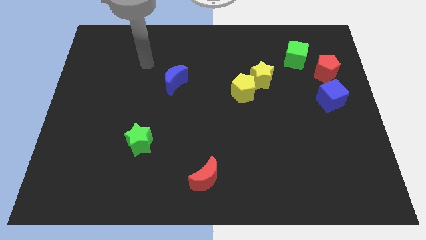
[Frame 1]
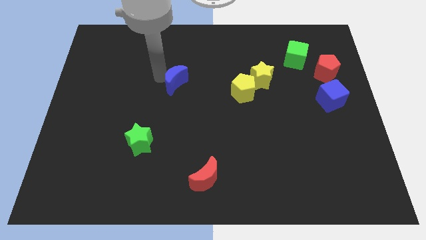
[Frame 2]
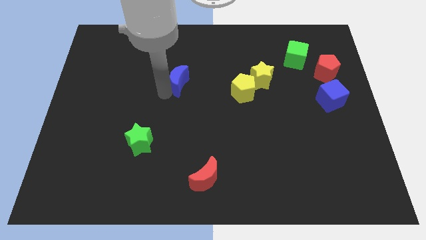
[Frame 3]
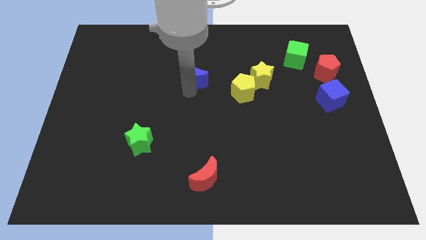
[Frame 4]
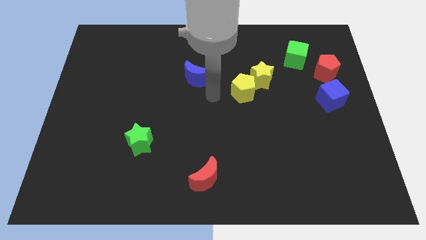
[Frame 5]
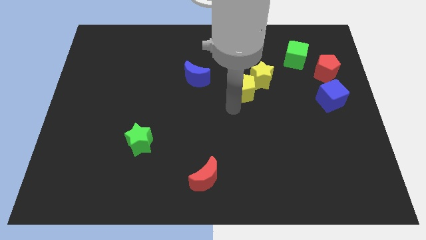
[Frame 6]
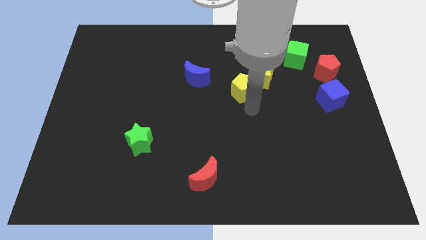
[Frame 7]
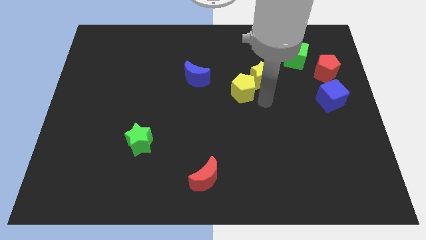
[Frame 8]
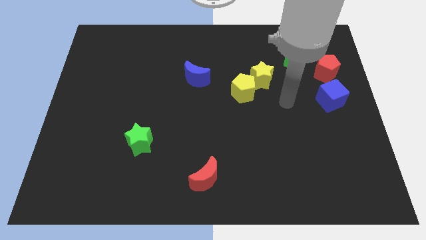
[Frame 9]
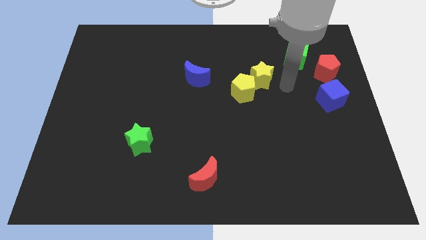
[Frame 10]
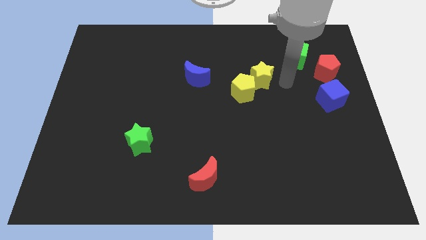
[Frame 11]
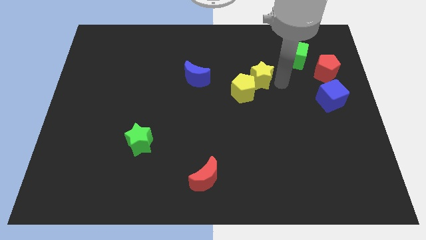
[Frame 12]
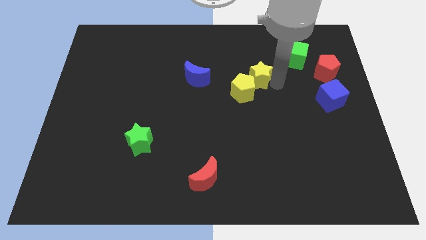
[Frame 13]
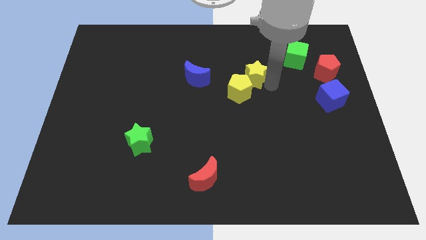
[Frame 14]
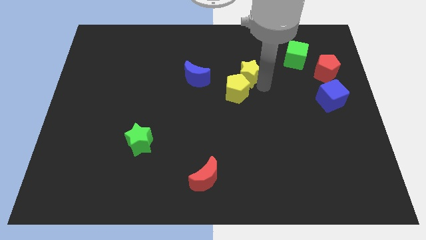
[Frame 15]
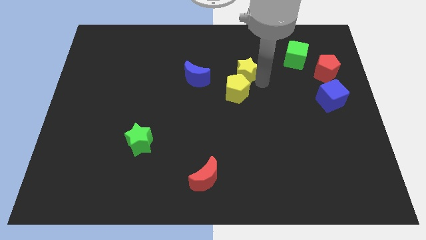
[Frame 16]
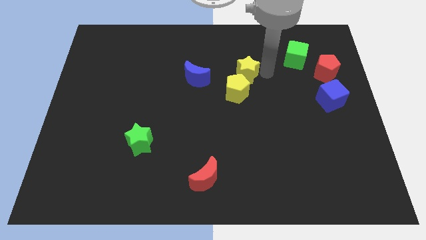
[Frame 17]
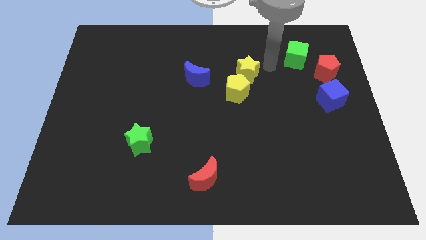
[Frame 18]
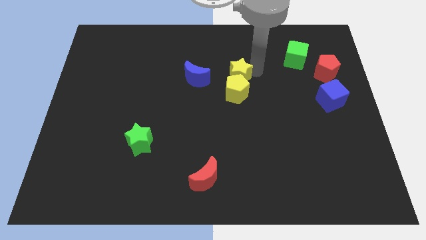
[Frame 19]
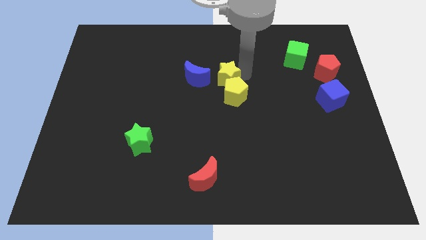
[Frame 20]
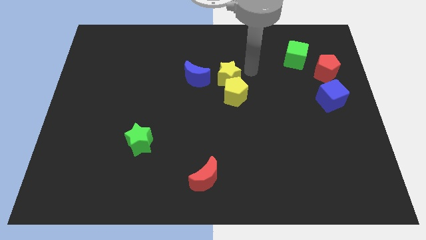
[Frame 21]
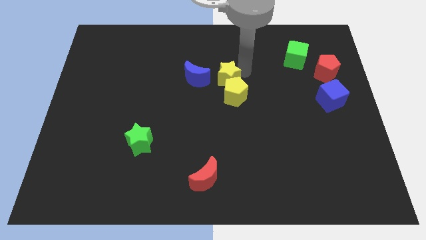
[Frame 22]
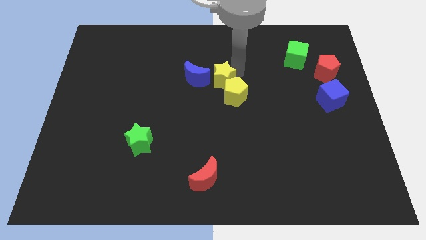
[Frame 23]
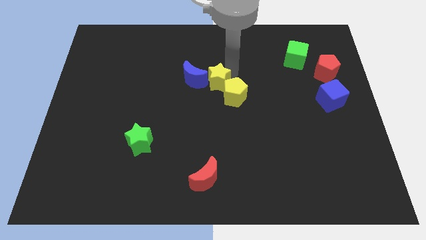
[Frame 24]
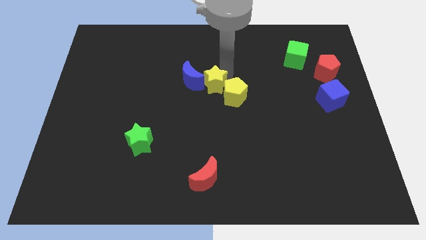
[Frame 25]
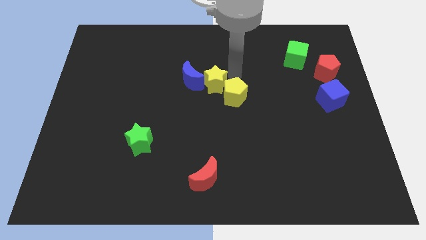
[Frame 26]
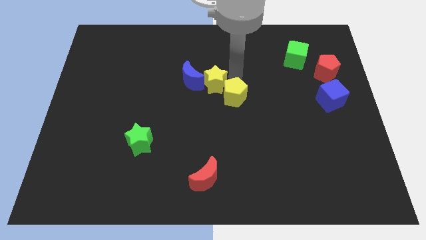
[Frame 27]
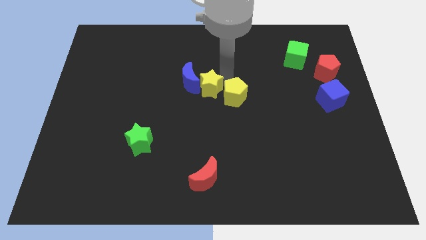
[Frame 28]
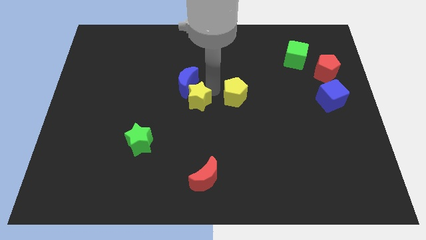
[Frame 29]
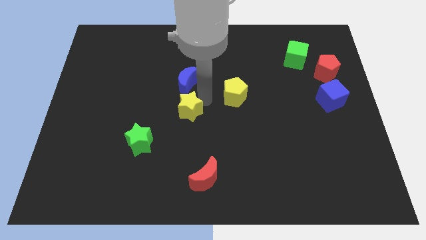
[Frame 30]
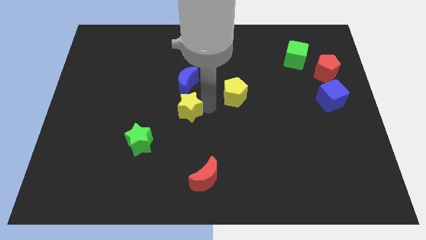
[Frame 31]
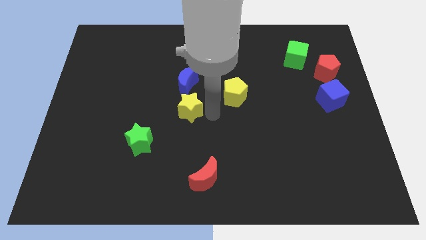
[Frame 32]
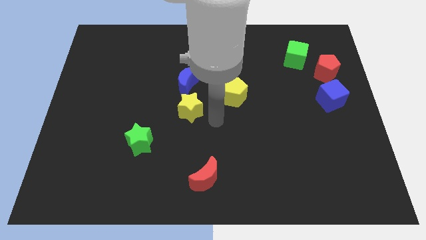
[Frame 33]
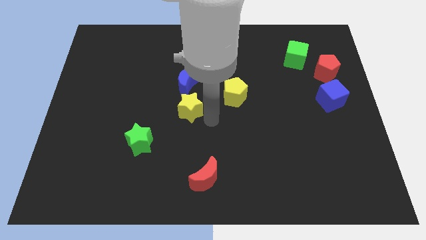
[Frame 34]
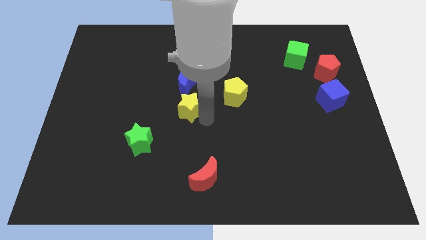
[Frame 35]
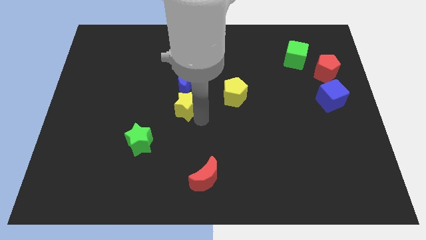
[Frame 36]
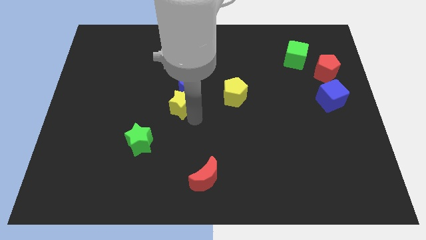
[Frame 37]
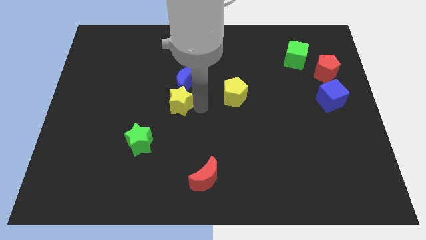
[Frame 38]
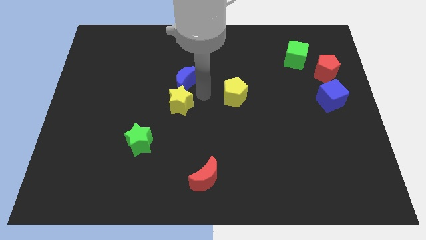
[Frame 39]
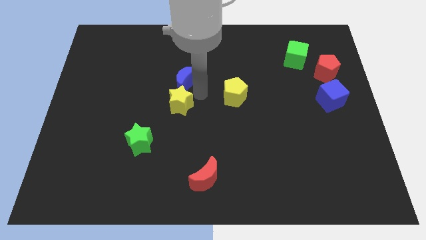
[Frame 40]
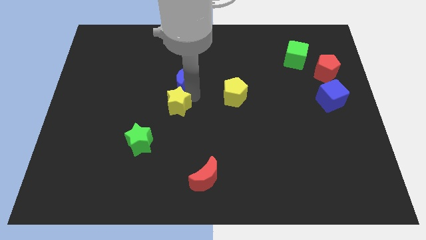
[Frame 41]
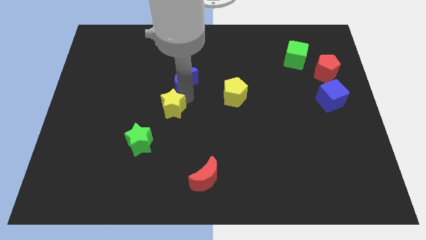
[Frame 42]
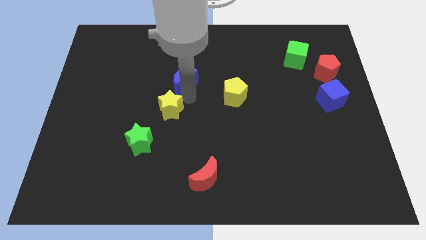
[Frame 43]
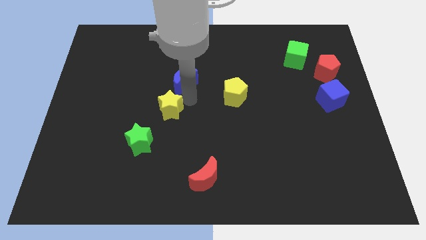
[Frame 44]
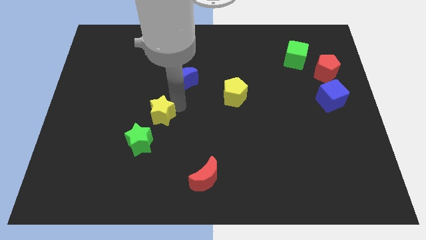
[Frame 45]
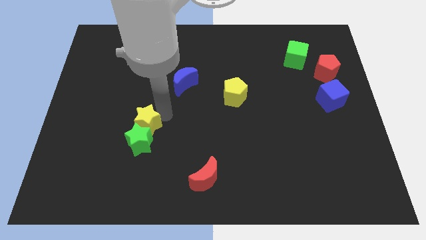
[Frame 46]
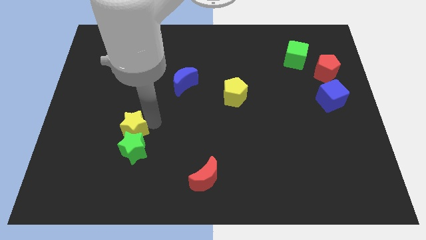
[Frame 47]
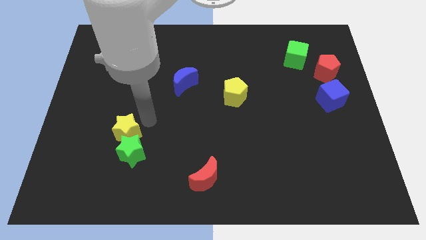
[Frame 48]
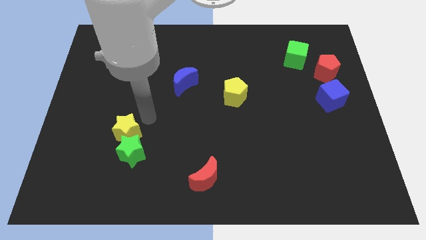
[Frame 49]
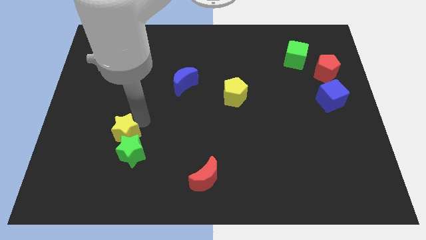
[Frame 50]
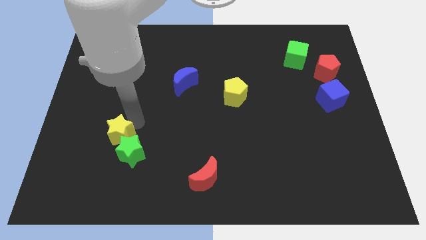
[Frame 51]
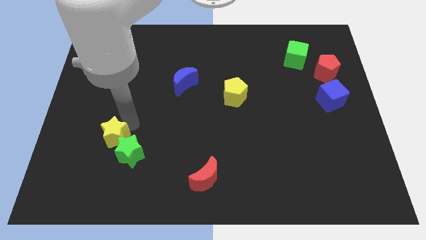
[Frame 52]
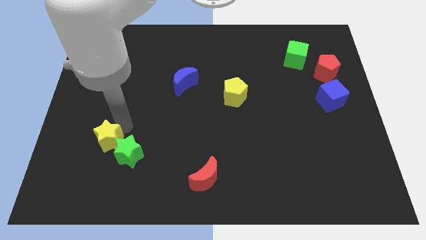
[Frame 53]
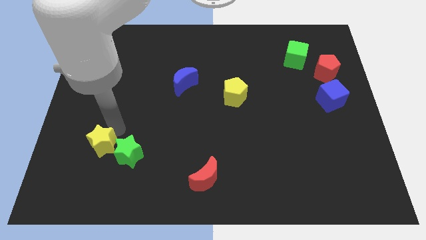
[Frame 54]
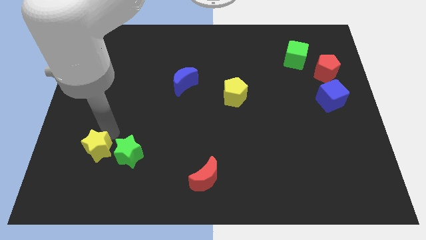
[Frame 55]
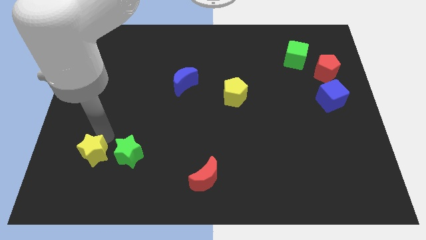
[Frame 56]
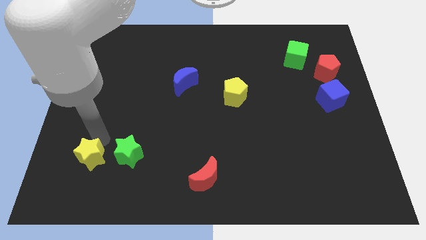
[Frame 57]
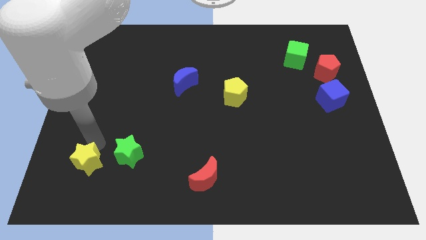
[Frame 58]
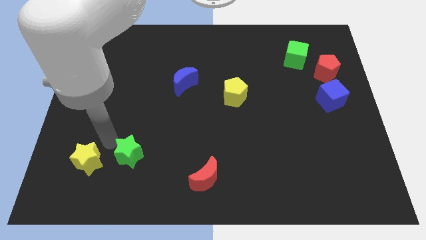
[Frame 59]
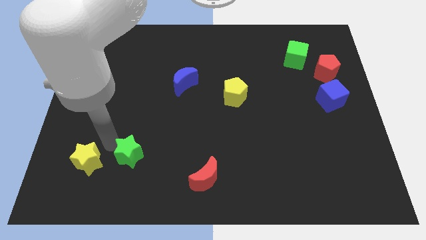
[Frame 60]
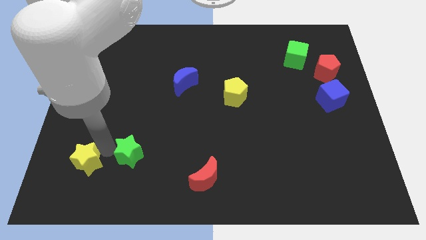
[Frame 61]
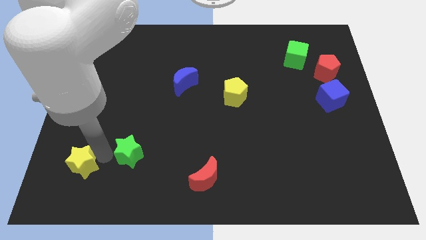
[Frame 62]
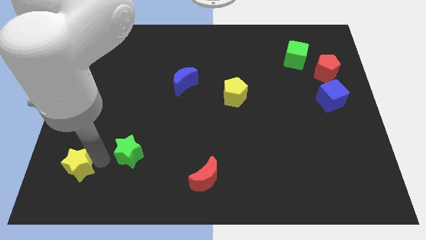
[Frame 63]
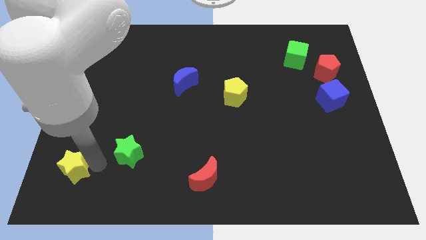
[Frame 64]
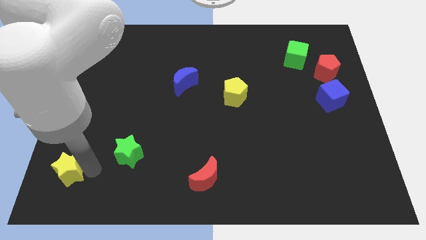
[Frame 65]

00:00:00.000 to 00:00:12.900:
move the yellow star to the lower left corner
